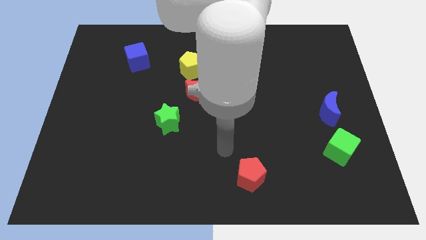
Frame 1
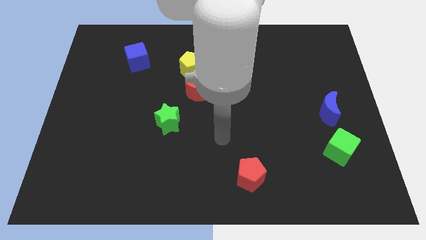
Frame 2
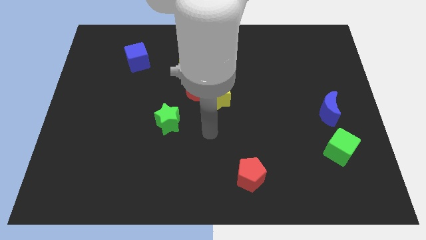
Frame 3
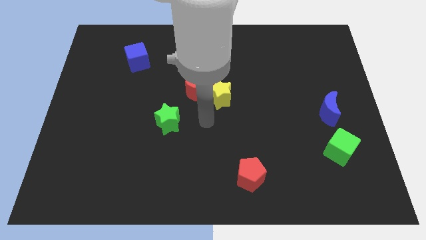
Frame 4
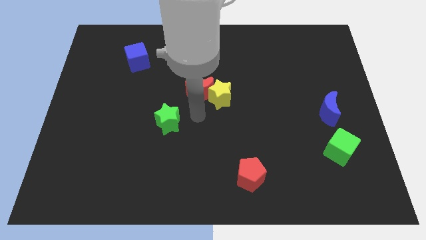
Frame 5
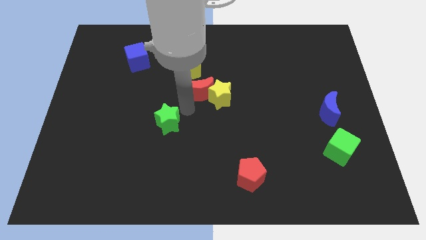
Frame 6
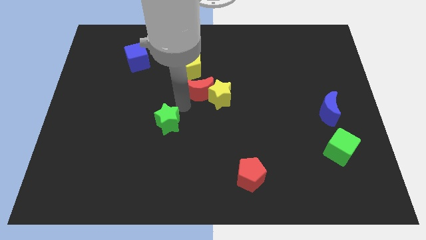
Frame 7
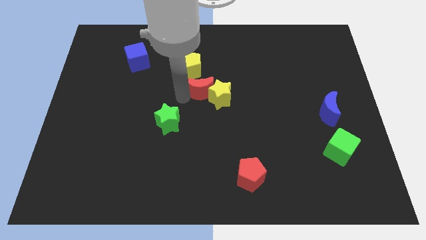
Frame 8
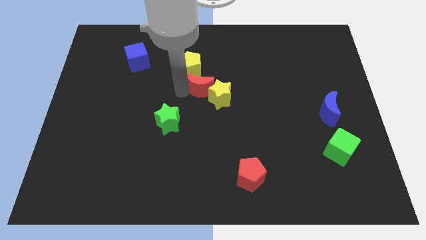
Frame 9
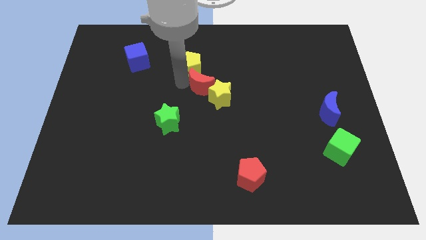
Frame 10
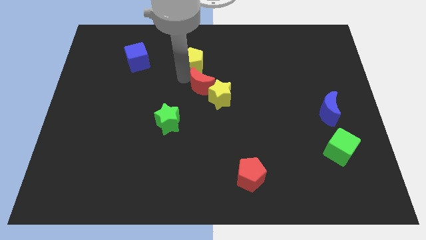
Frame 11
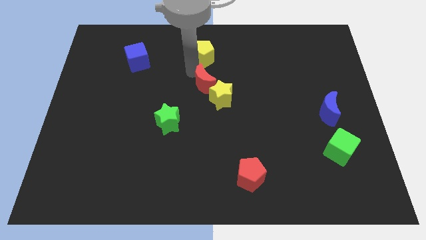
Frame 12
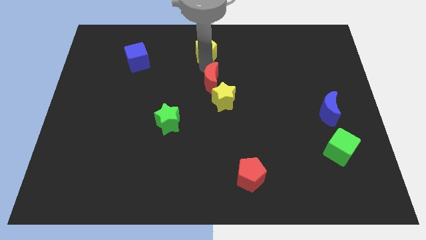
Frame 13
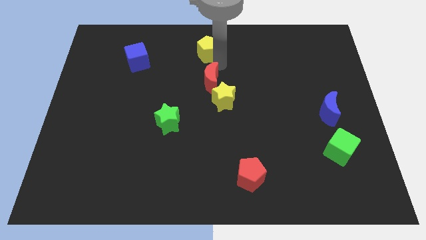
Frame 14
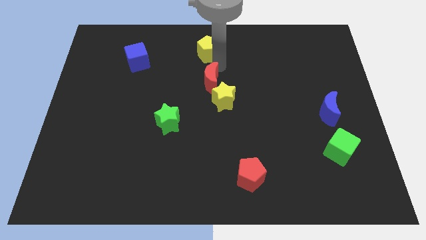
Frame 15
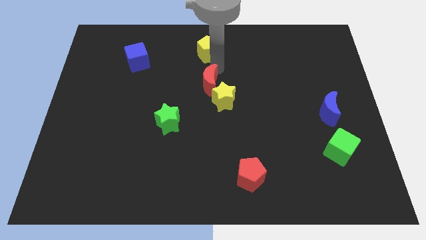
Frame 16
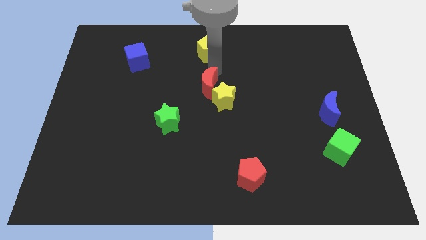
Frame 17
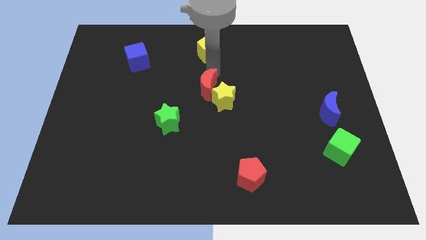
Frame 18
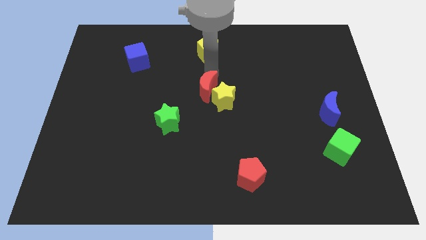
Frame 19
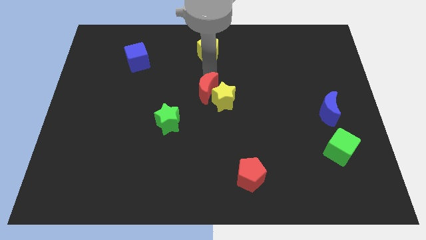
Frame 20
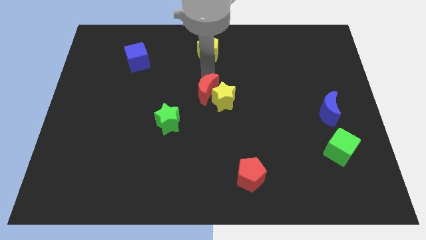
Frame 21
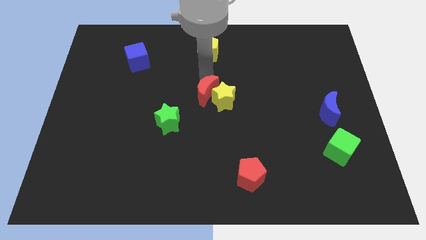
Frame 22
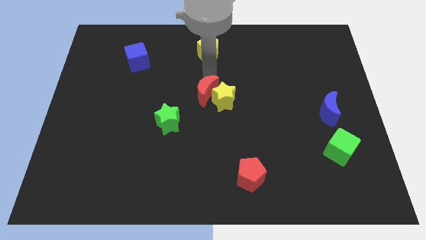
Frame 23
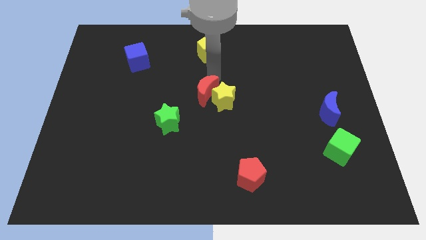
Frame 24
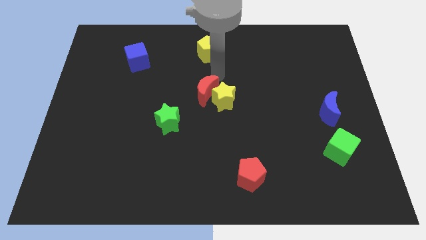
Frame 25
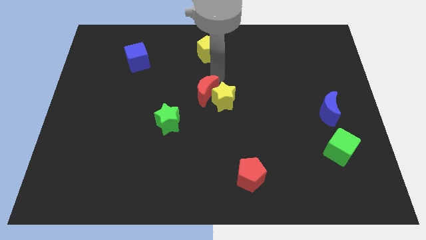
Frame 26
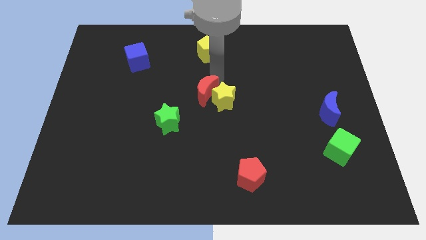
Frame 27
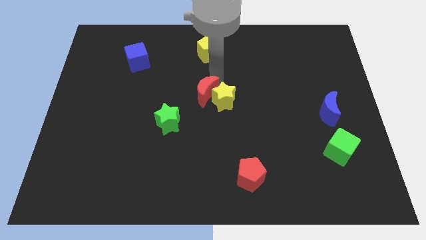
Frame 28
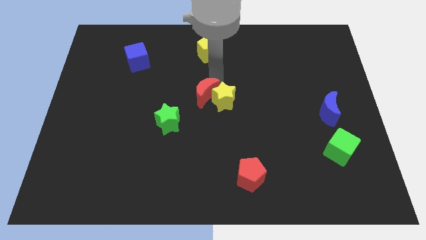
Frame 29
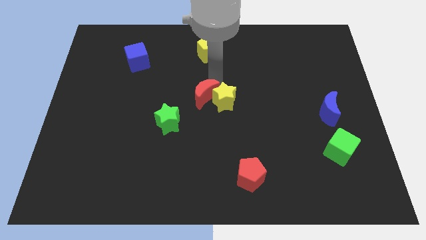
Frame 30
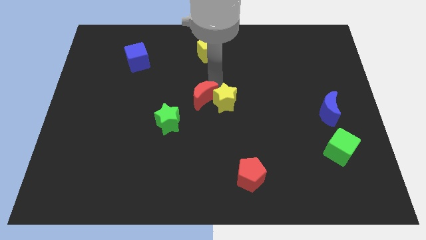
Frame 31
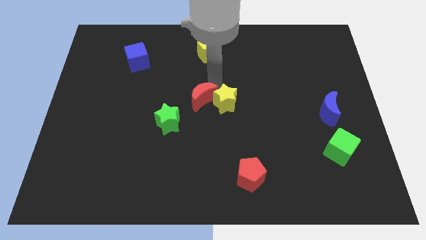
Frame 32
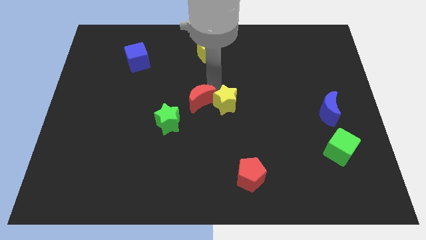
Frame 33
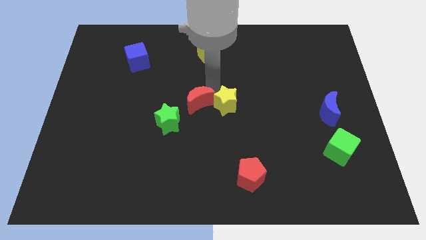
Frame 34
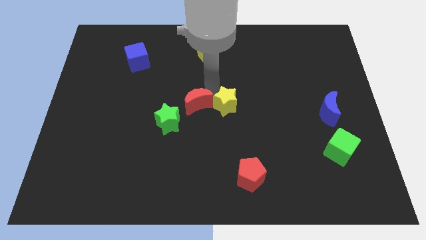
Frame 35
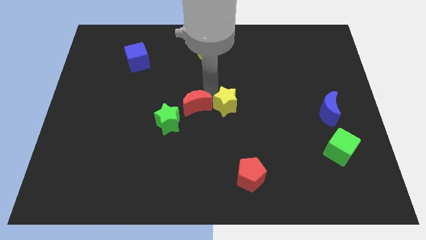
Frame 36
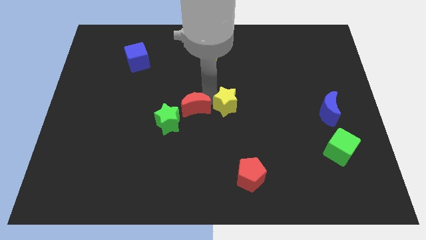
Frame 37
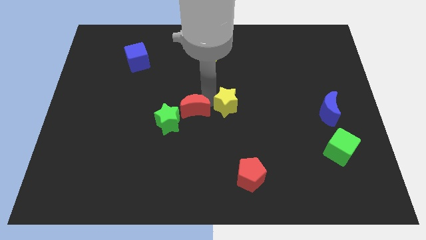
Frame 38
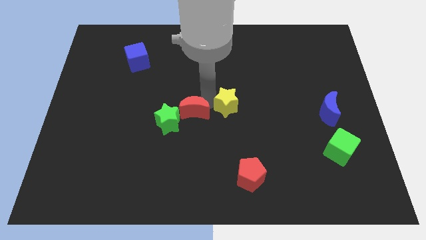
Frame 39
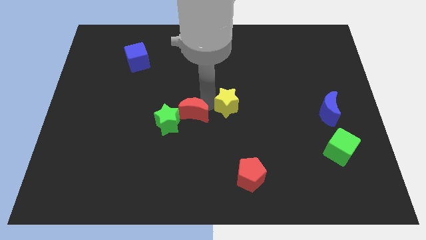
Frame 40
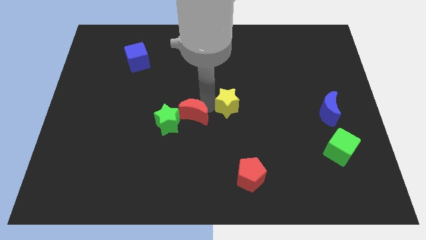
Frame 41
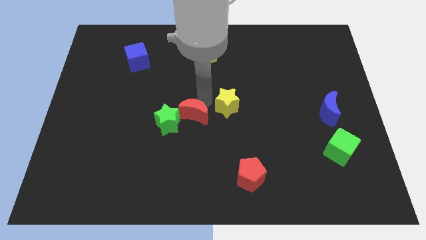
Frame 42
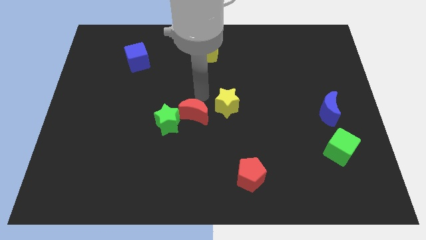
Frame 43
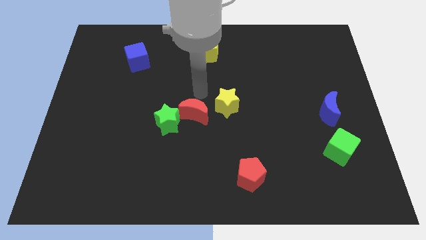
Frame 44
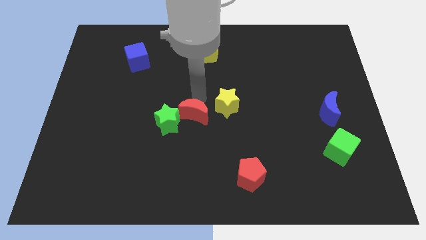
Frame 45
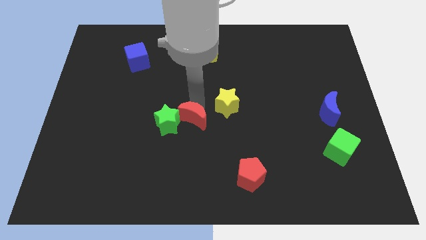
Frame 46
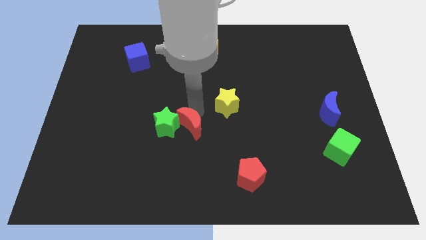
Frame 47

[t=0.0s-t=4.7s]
slide the red moon to the bottom right side of the green star

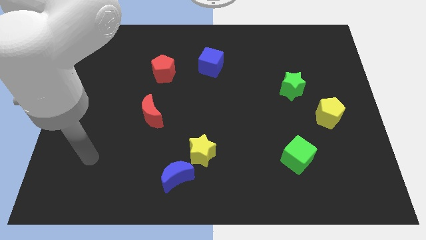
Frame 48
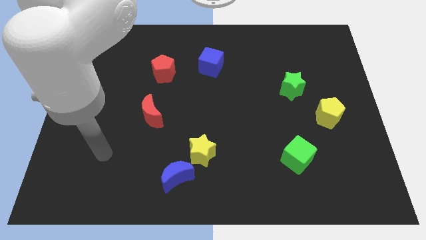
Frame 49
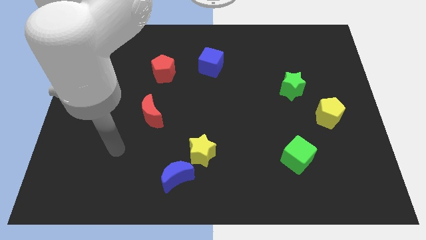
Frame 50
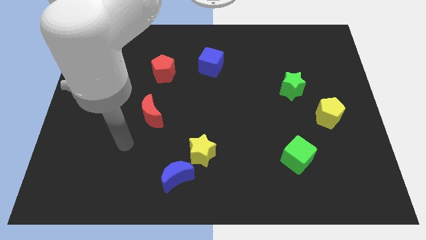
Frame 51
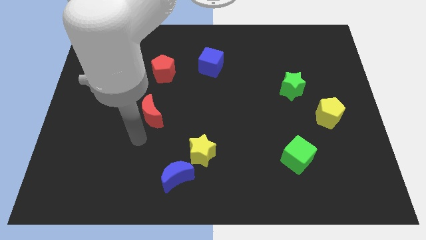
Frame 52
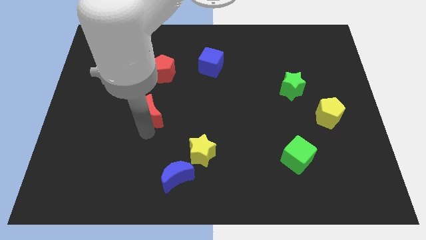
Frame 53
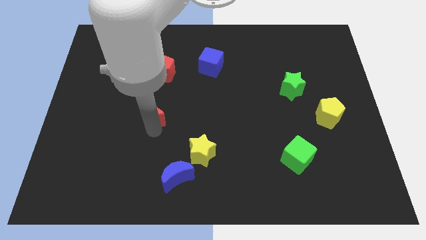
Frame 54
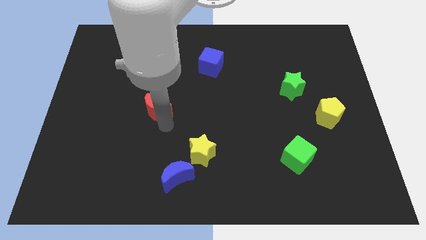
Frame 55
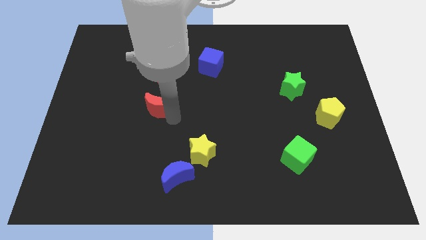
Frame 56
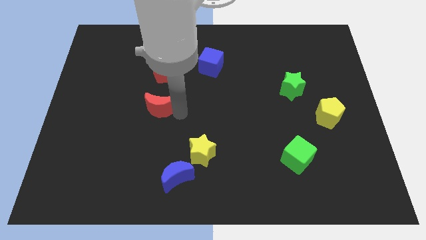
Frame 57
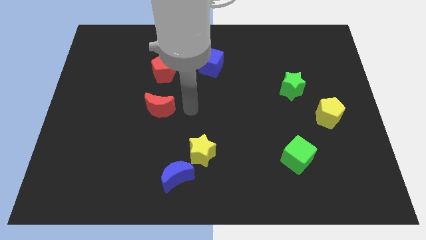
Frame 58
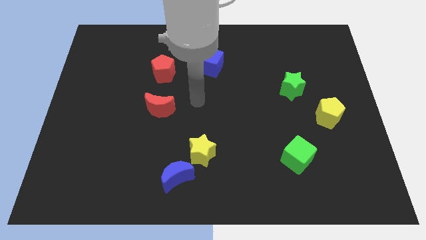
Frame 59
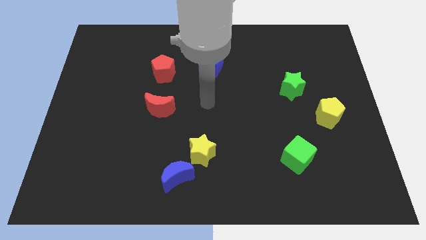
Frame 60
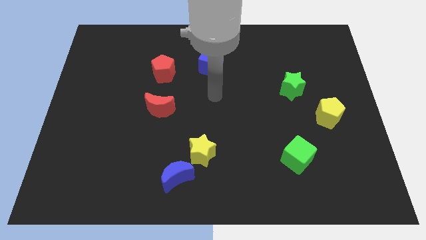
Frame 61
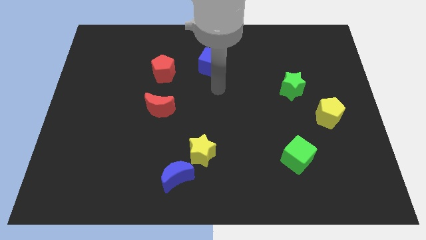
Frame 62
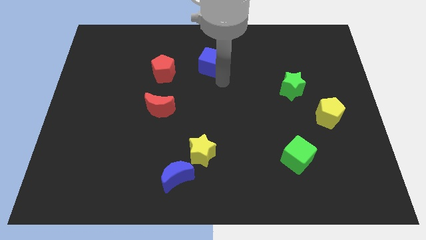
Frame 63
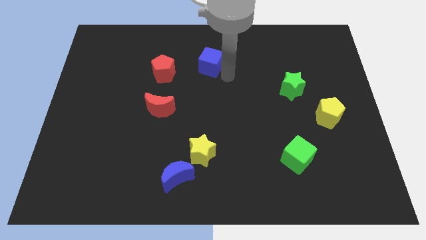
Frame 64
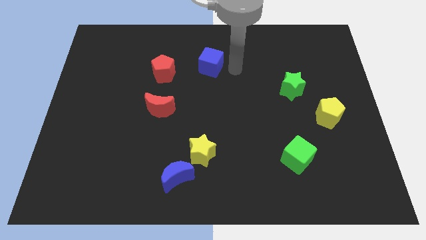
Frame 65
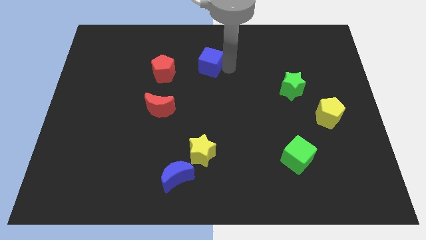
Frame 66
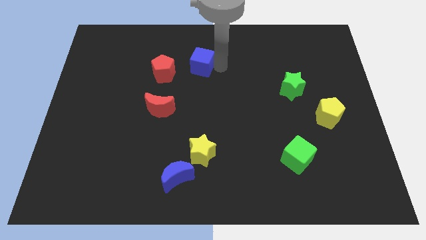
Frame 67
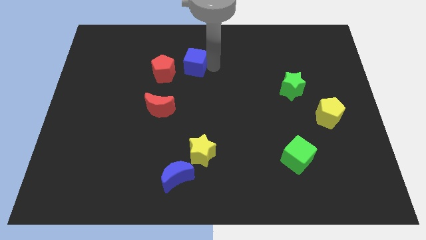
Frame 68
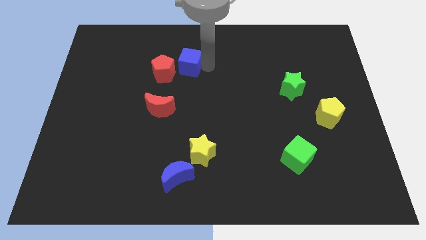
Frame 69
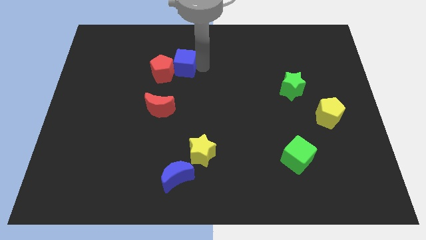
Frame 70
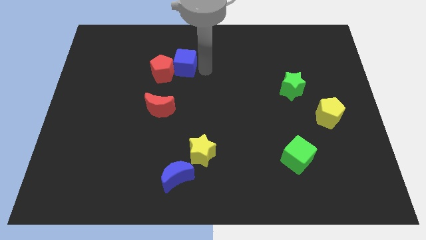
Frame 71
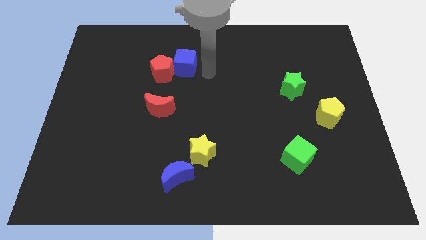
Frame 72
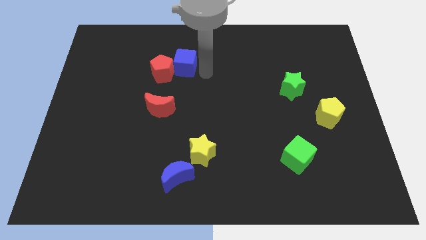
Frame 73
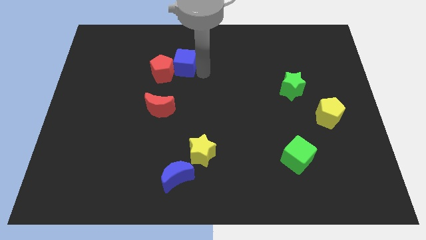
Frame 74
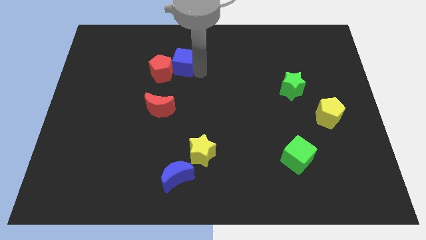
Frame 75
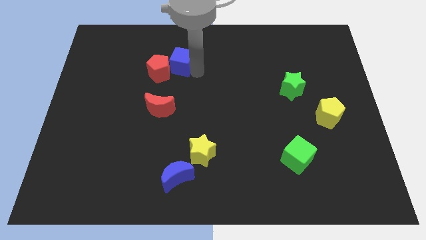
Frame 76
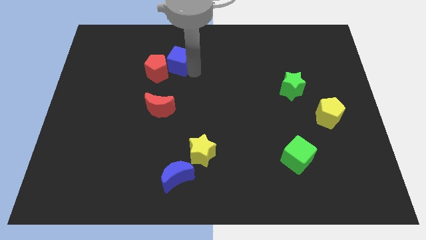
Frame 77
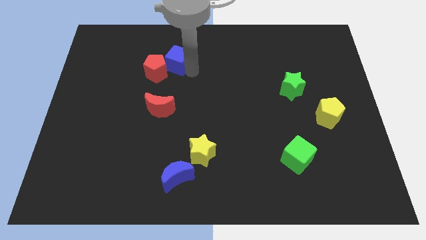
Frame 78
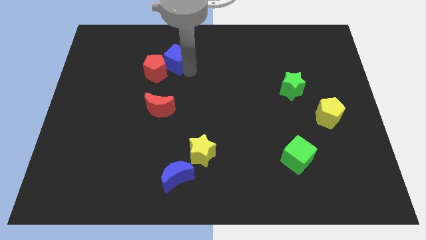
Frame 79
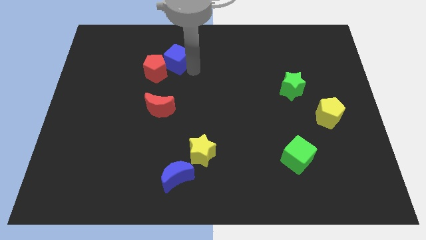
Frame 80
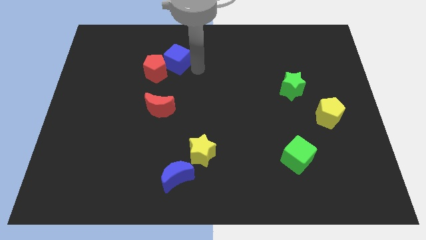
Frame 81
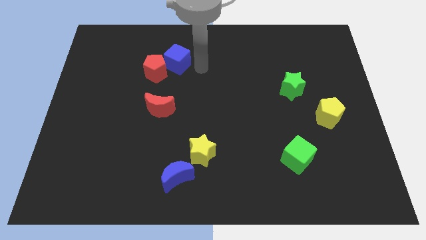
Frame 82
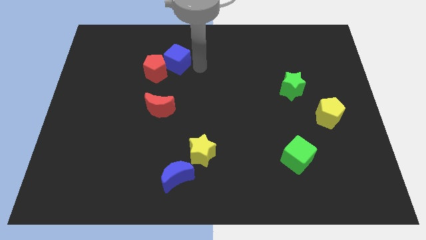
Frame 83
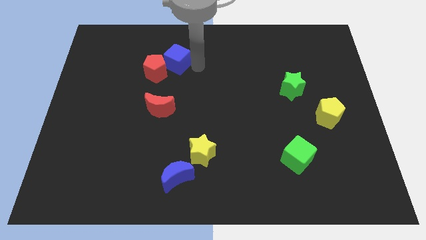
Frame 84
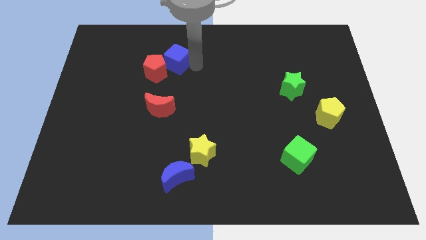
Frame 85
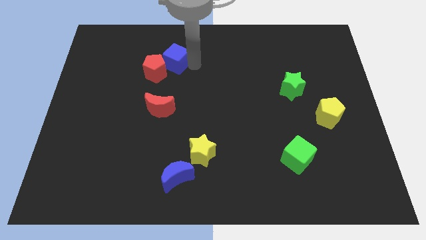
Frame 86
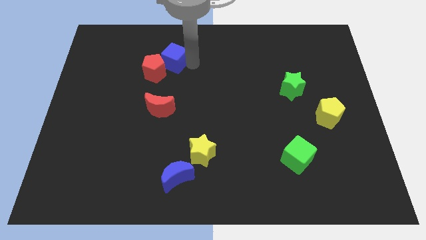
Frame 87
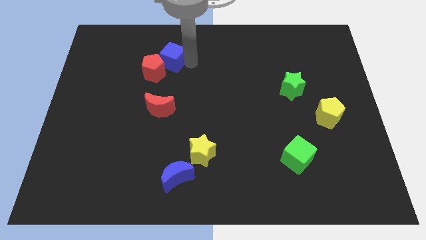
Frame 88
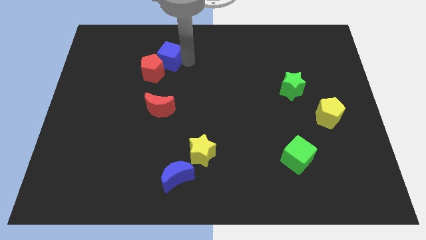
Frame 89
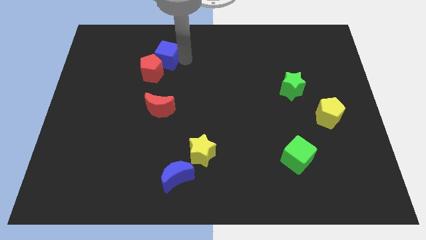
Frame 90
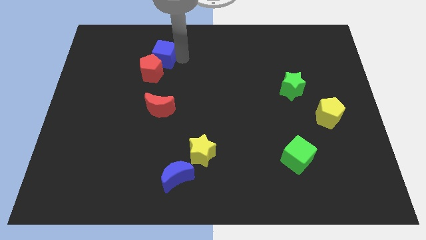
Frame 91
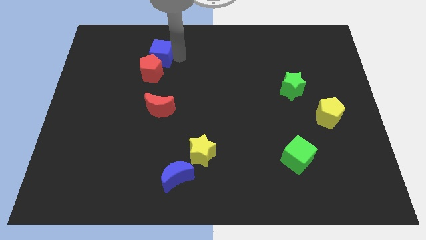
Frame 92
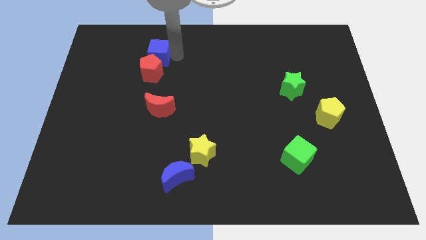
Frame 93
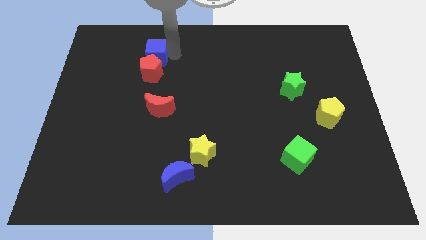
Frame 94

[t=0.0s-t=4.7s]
put the blue cube to the top left side of the red pentagon
